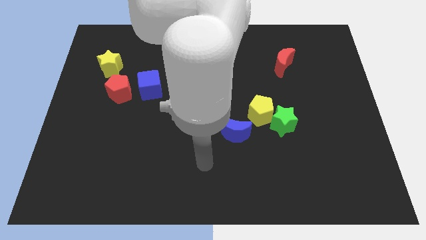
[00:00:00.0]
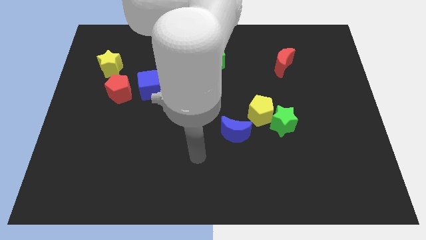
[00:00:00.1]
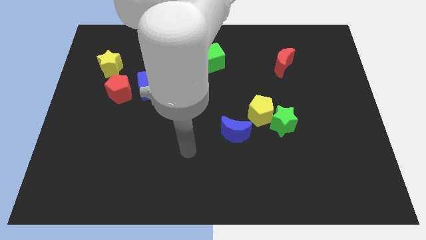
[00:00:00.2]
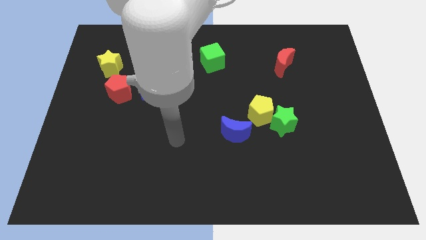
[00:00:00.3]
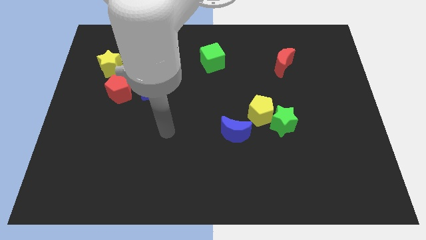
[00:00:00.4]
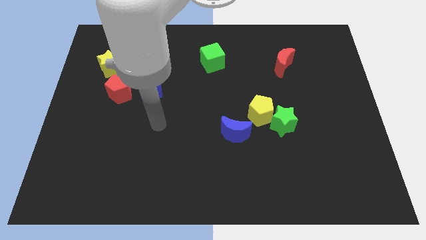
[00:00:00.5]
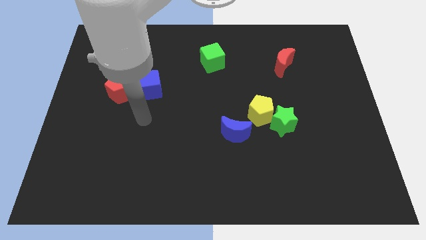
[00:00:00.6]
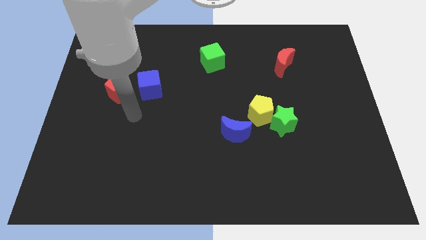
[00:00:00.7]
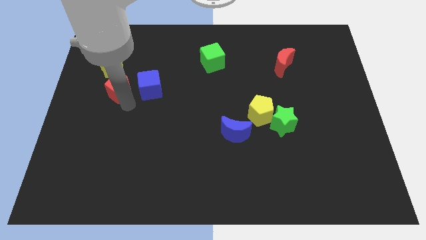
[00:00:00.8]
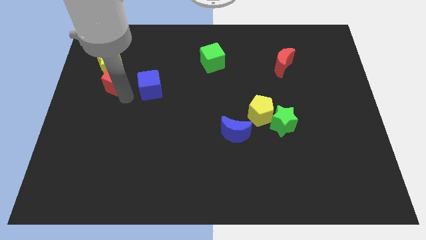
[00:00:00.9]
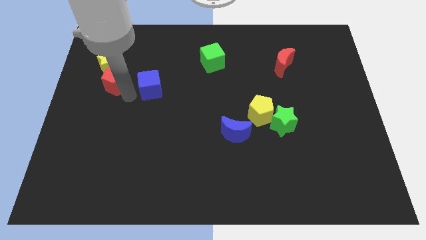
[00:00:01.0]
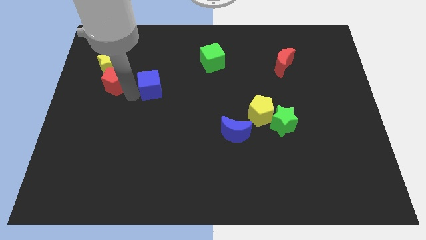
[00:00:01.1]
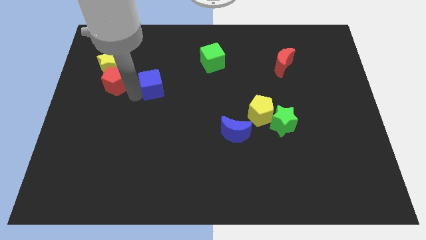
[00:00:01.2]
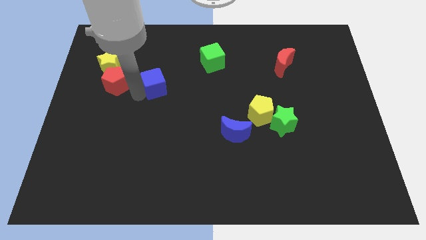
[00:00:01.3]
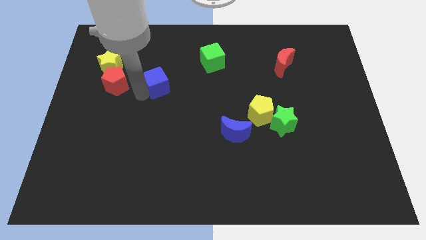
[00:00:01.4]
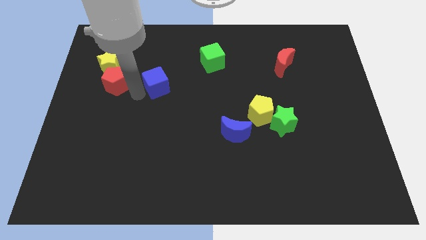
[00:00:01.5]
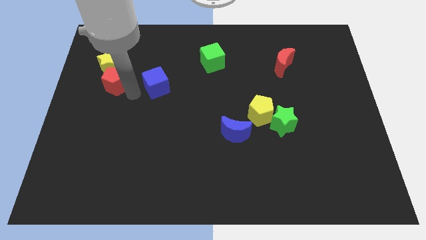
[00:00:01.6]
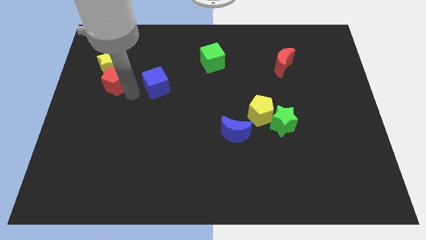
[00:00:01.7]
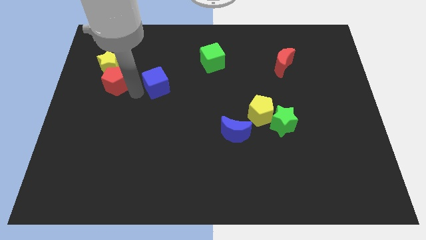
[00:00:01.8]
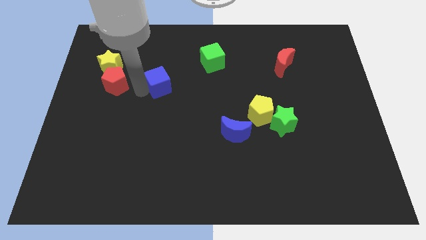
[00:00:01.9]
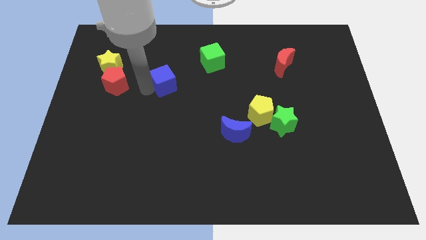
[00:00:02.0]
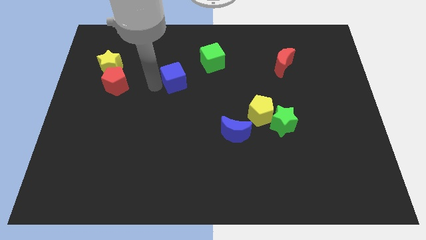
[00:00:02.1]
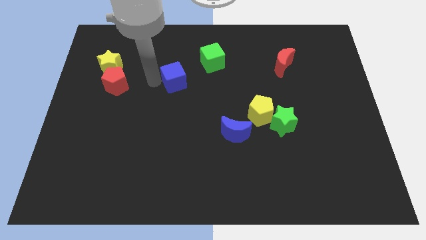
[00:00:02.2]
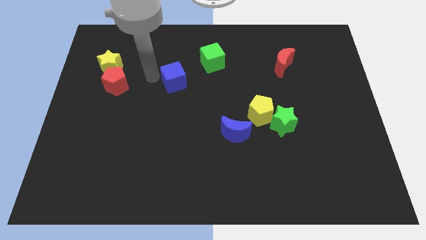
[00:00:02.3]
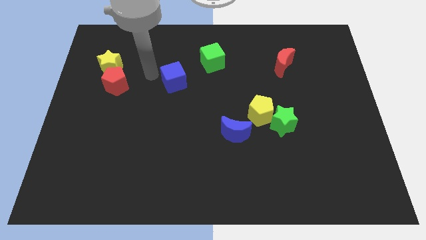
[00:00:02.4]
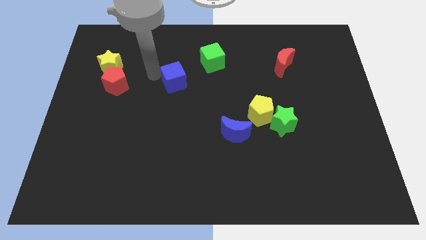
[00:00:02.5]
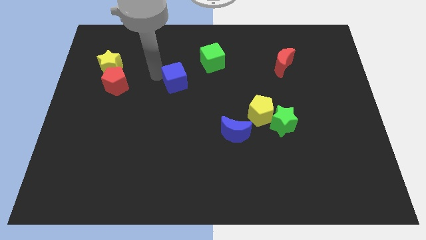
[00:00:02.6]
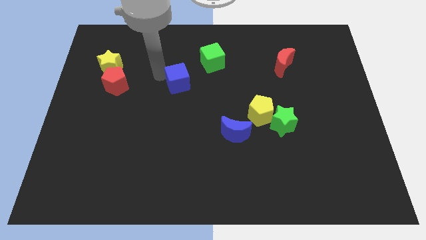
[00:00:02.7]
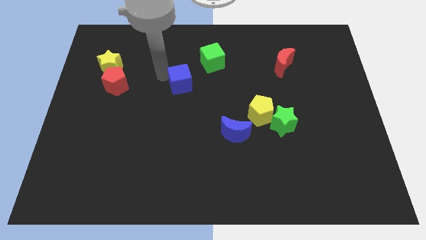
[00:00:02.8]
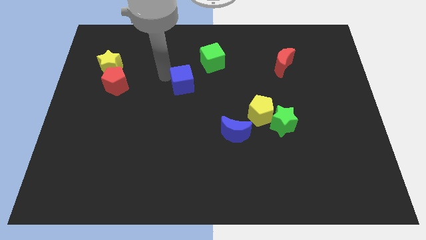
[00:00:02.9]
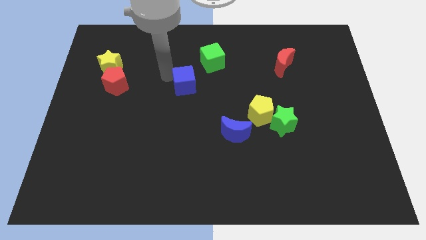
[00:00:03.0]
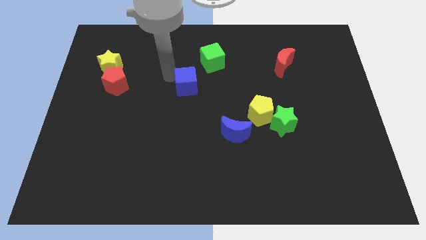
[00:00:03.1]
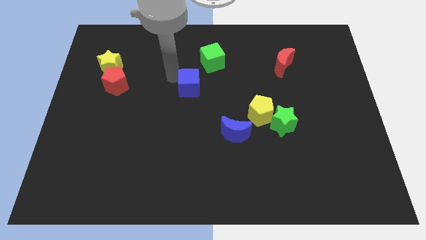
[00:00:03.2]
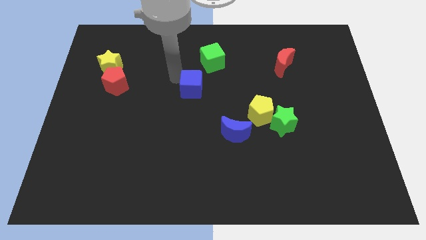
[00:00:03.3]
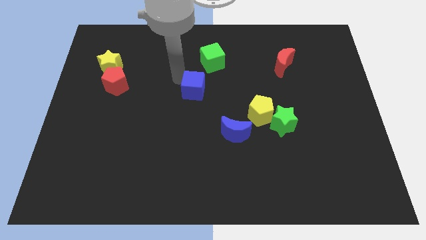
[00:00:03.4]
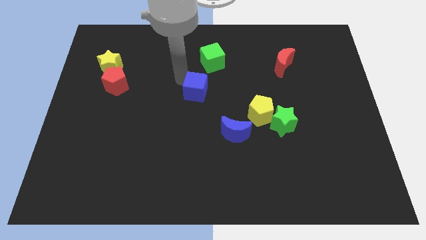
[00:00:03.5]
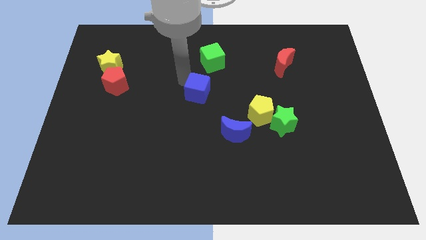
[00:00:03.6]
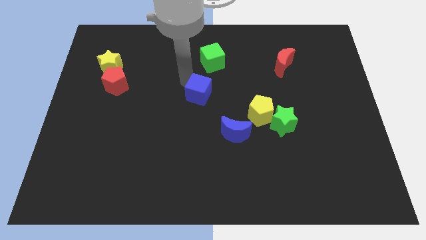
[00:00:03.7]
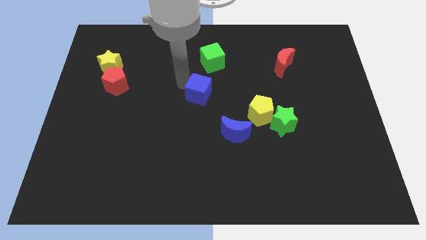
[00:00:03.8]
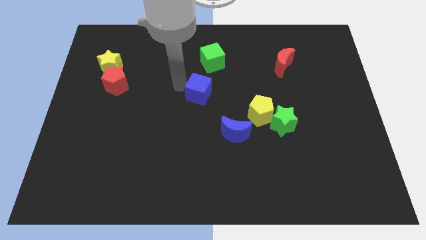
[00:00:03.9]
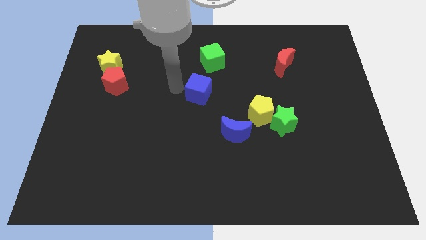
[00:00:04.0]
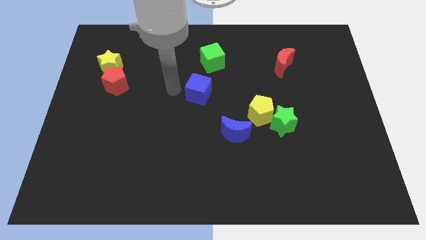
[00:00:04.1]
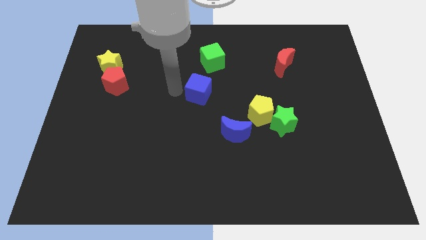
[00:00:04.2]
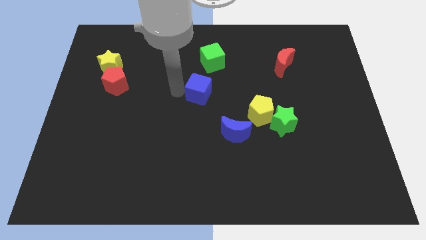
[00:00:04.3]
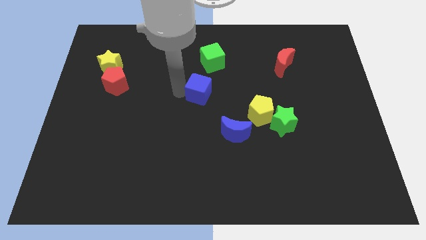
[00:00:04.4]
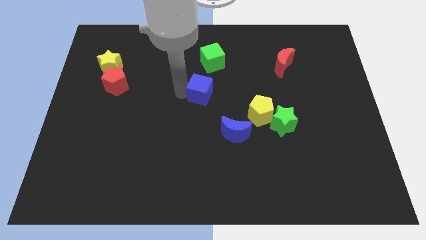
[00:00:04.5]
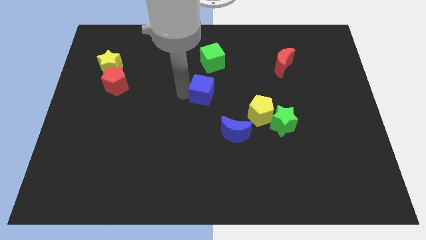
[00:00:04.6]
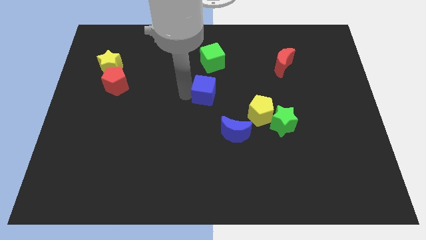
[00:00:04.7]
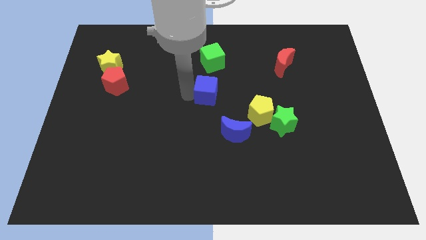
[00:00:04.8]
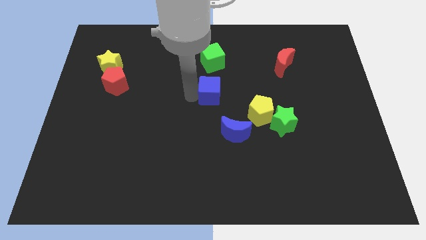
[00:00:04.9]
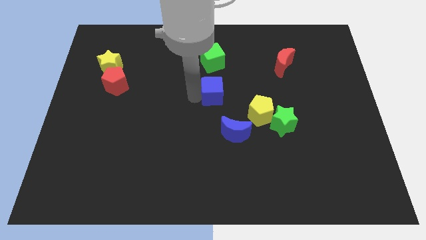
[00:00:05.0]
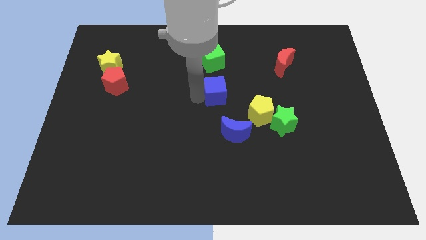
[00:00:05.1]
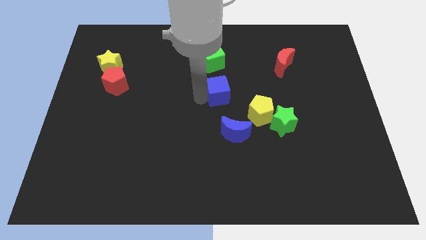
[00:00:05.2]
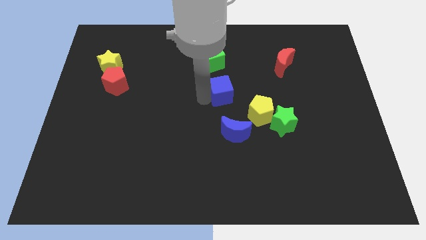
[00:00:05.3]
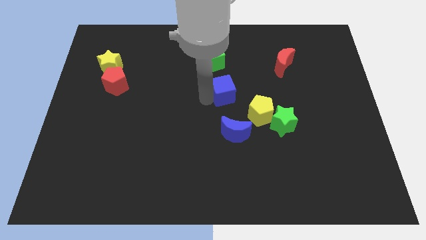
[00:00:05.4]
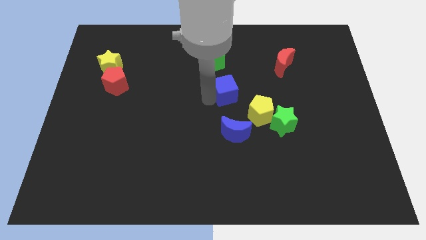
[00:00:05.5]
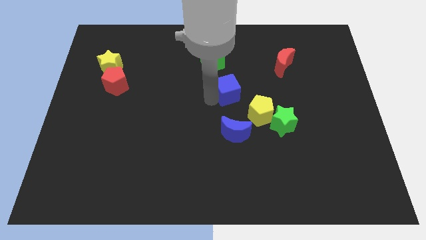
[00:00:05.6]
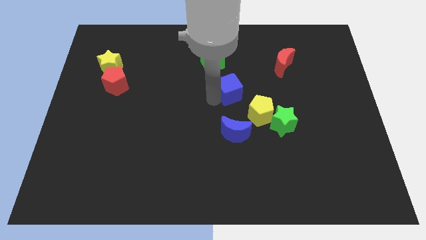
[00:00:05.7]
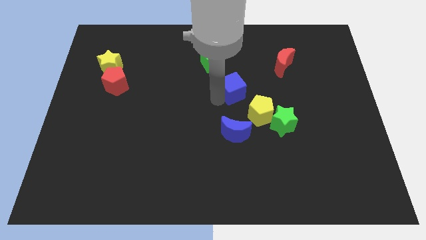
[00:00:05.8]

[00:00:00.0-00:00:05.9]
move the blue cube to the right

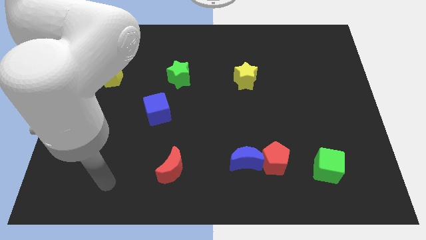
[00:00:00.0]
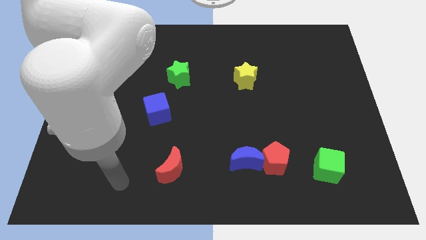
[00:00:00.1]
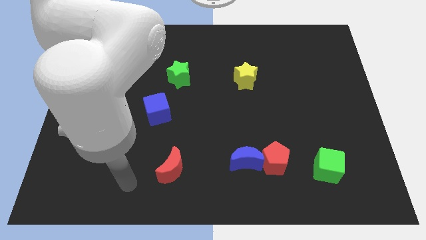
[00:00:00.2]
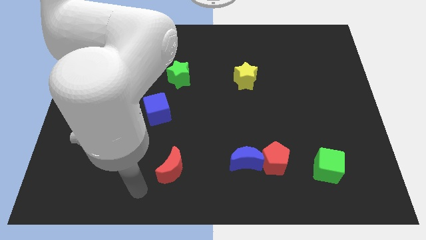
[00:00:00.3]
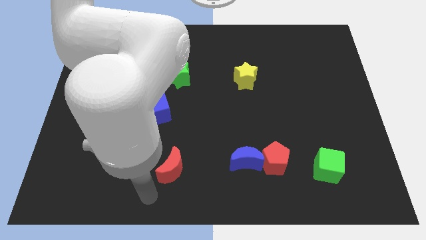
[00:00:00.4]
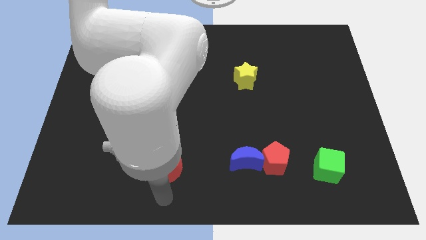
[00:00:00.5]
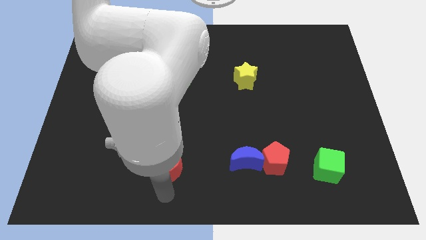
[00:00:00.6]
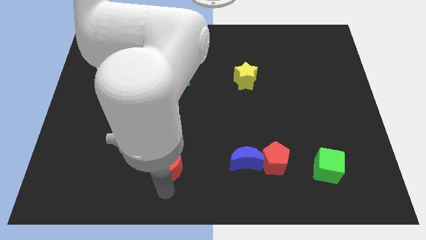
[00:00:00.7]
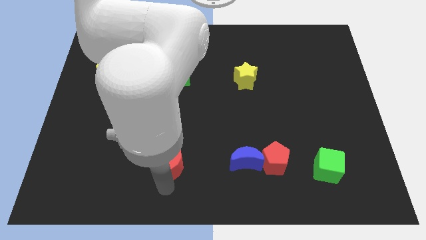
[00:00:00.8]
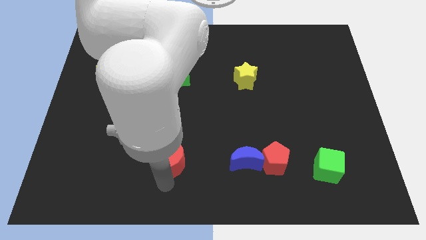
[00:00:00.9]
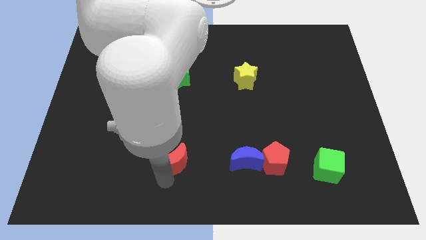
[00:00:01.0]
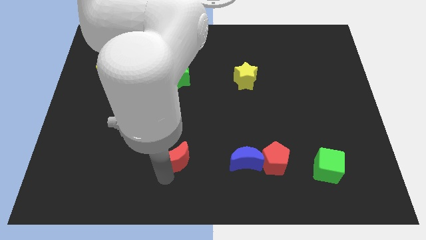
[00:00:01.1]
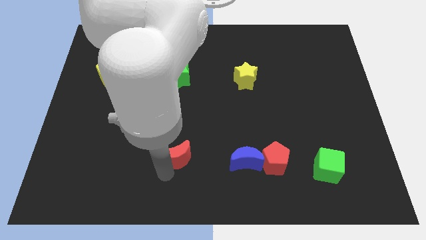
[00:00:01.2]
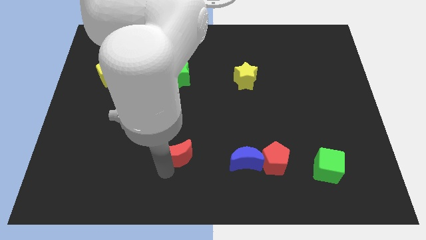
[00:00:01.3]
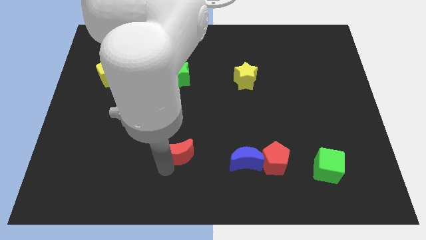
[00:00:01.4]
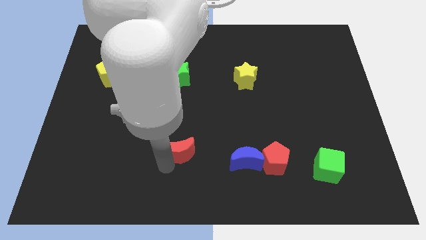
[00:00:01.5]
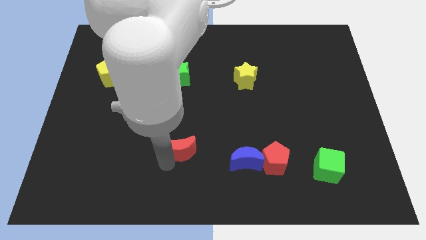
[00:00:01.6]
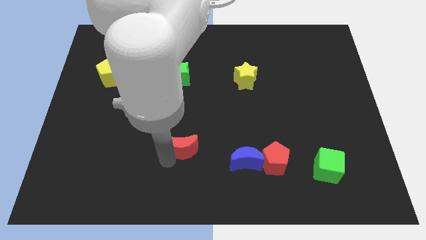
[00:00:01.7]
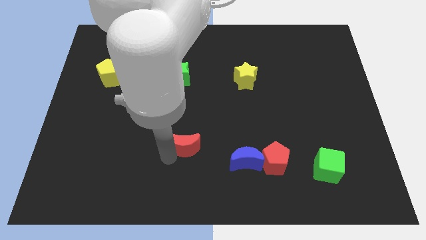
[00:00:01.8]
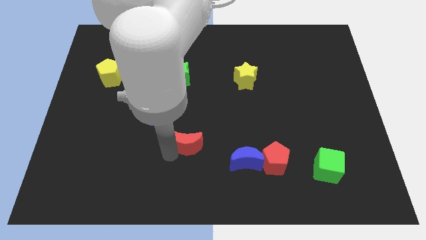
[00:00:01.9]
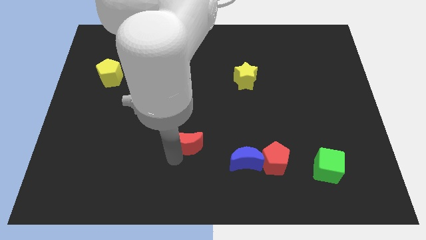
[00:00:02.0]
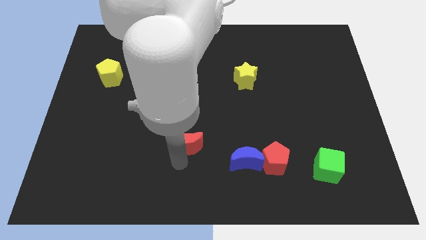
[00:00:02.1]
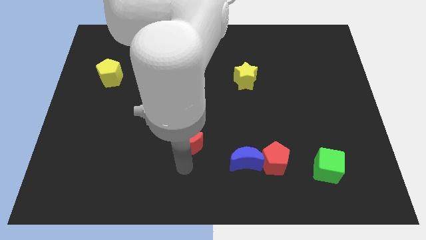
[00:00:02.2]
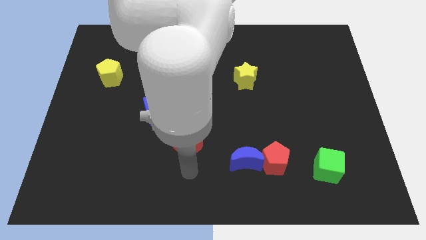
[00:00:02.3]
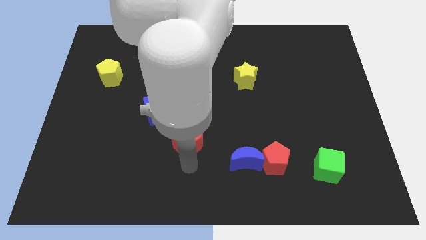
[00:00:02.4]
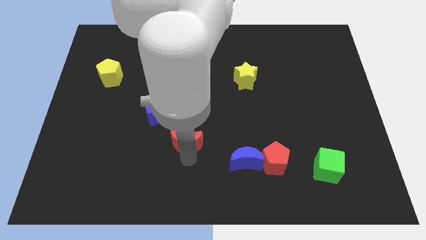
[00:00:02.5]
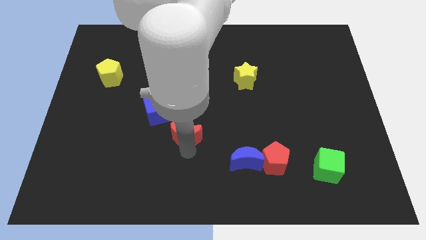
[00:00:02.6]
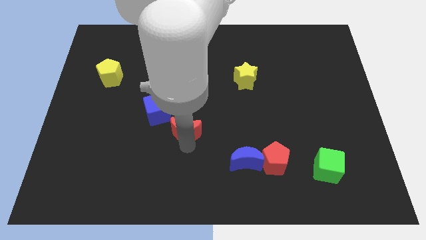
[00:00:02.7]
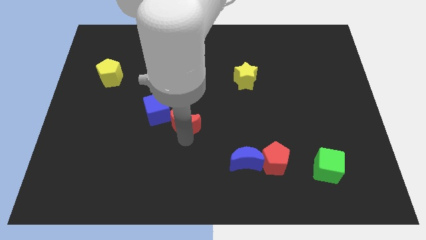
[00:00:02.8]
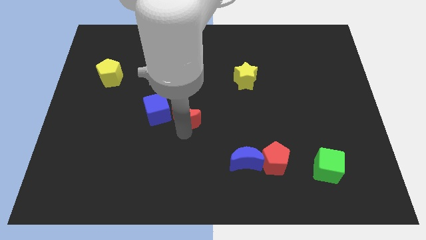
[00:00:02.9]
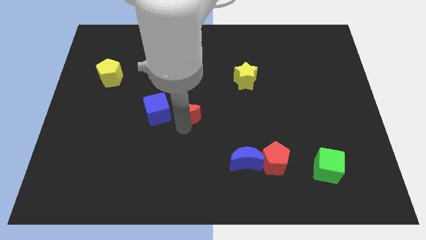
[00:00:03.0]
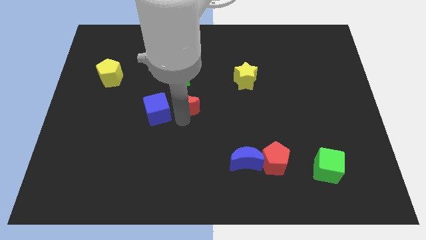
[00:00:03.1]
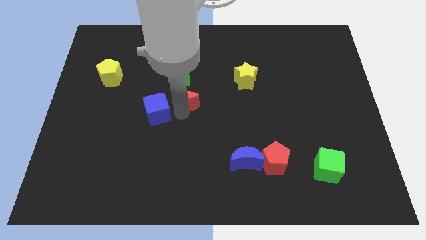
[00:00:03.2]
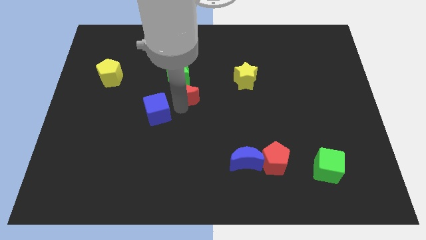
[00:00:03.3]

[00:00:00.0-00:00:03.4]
push the red moon upwards
